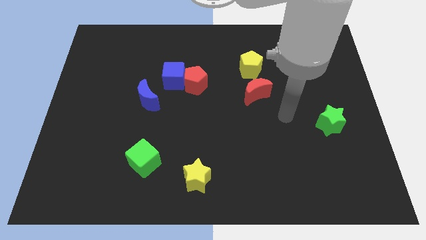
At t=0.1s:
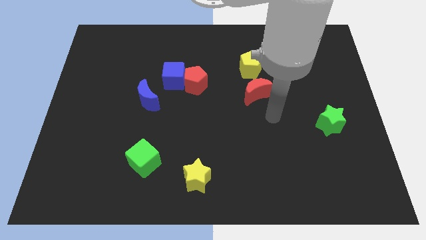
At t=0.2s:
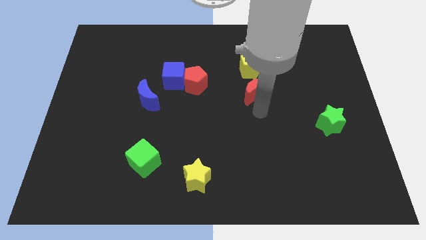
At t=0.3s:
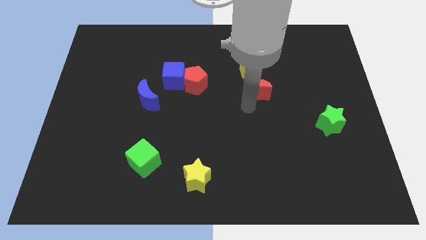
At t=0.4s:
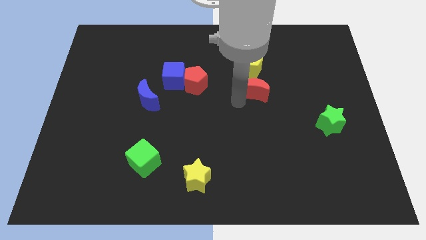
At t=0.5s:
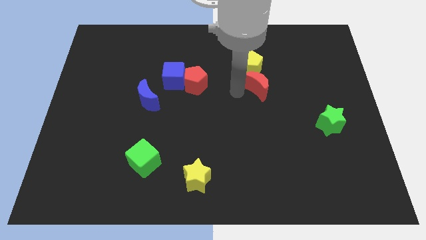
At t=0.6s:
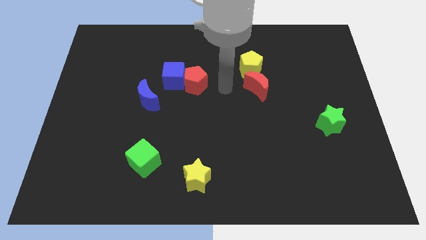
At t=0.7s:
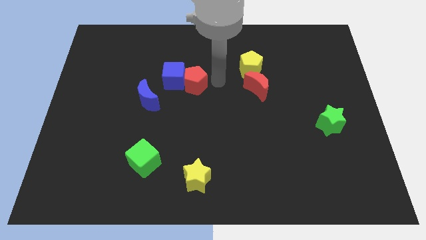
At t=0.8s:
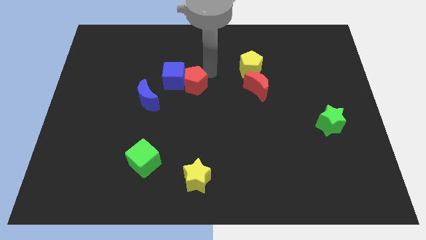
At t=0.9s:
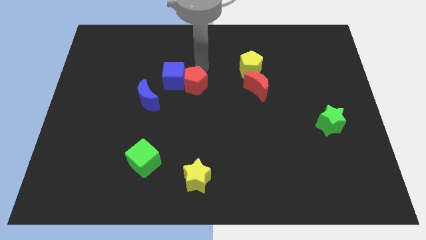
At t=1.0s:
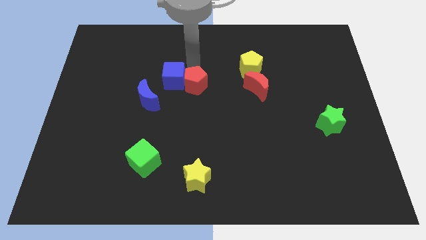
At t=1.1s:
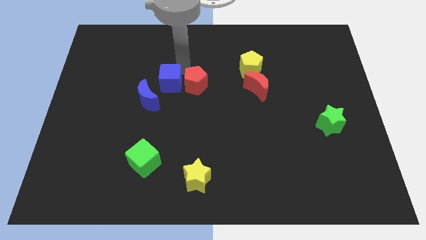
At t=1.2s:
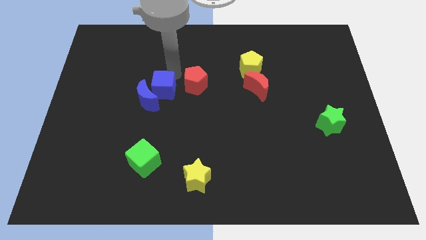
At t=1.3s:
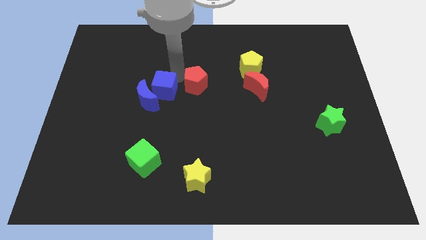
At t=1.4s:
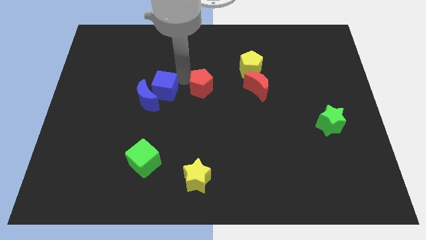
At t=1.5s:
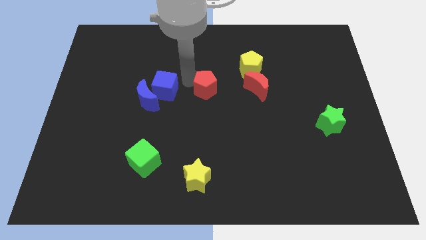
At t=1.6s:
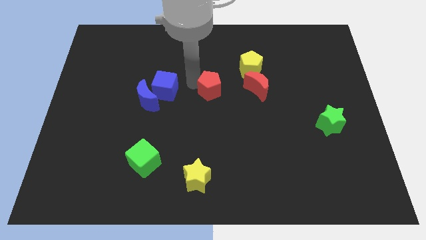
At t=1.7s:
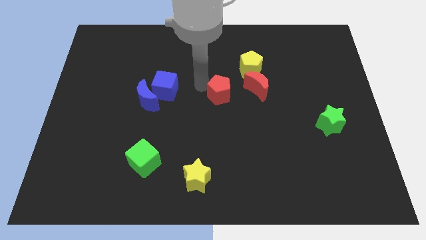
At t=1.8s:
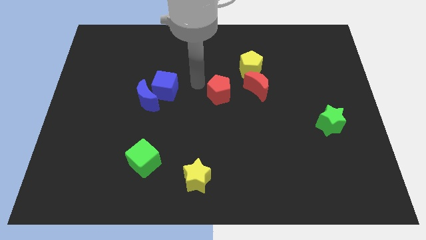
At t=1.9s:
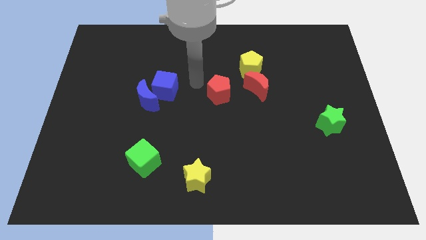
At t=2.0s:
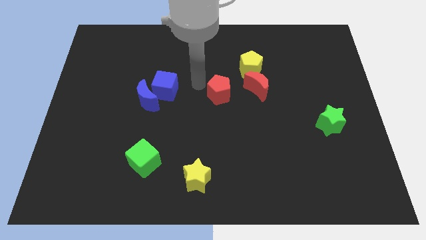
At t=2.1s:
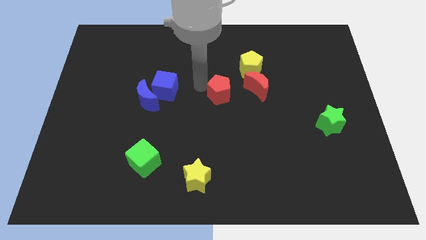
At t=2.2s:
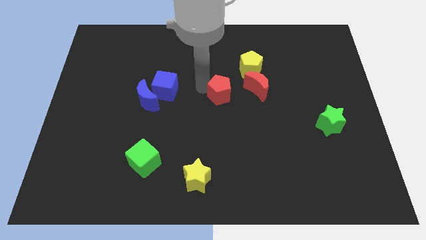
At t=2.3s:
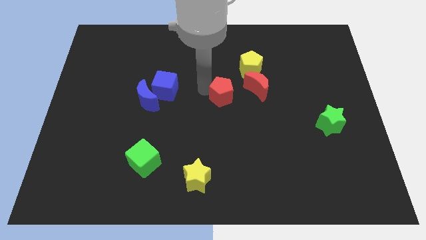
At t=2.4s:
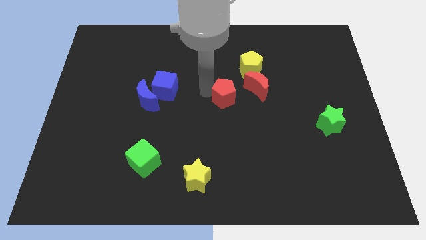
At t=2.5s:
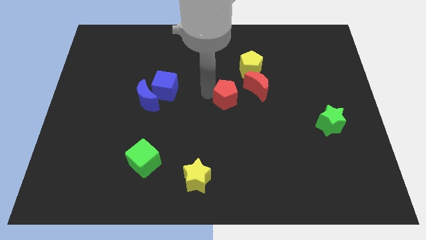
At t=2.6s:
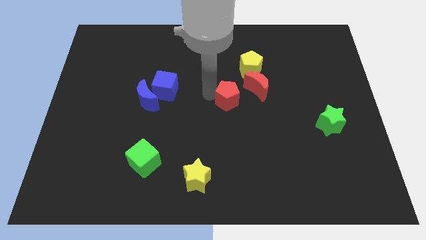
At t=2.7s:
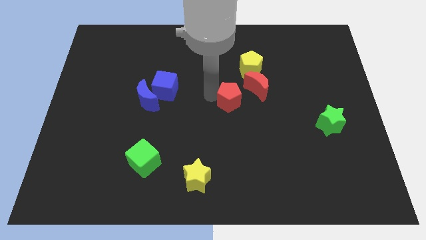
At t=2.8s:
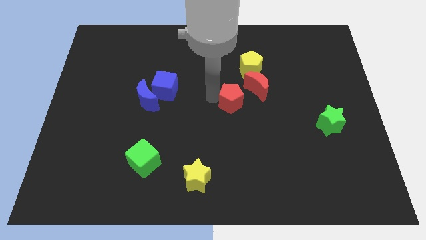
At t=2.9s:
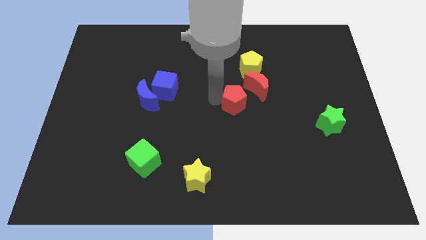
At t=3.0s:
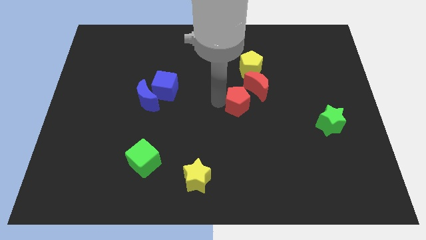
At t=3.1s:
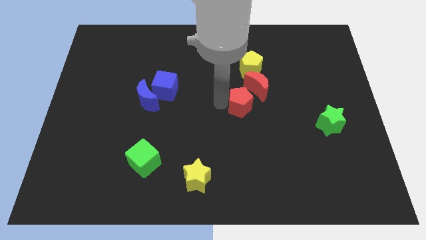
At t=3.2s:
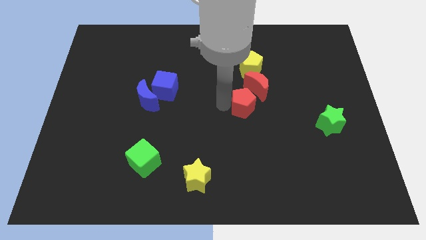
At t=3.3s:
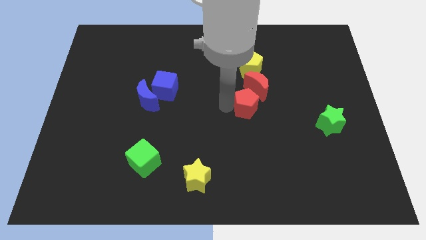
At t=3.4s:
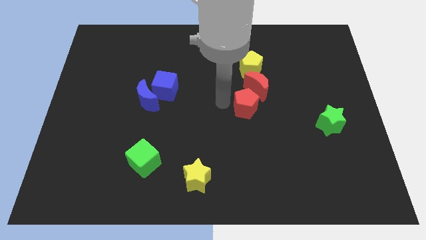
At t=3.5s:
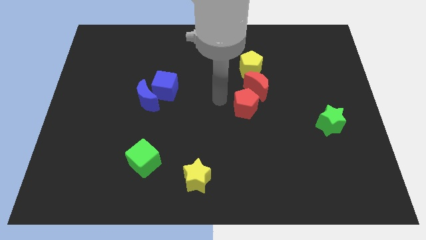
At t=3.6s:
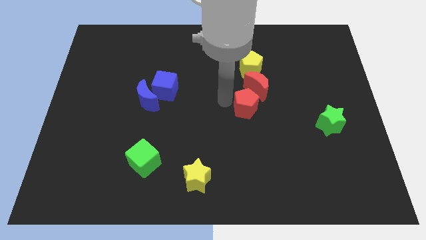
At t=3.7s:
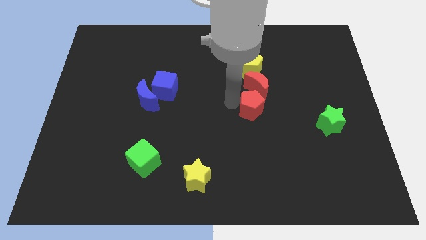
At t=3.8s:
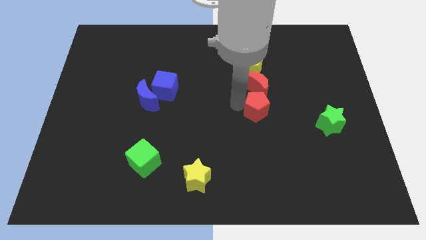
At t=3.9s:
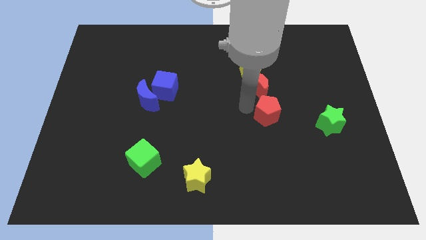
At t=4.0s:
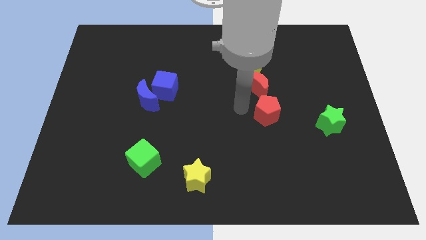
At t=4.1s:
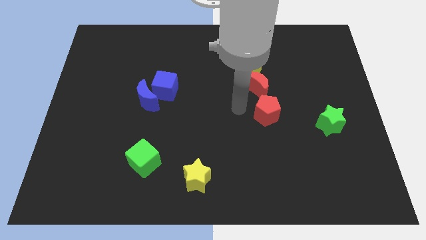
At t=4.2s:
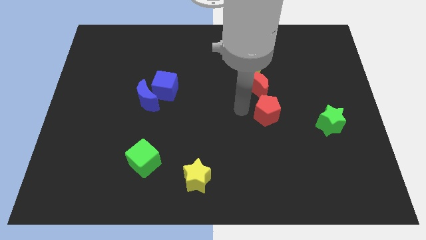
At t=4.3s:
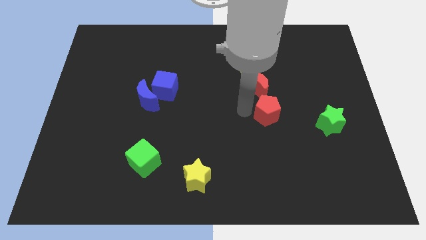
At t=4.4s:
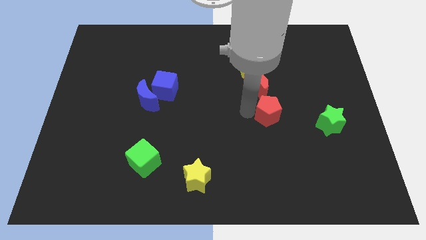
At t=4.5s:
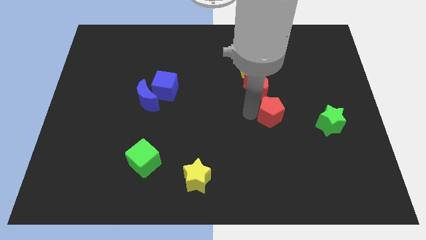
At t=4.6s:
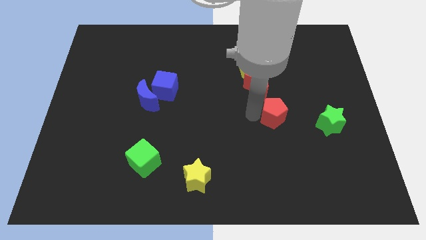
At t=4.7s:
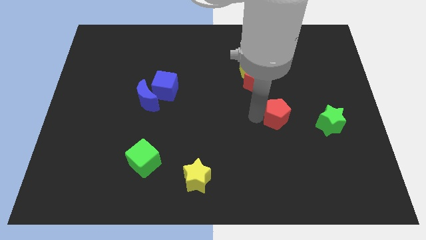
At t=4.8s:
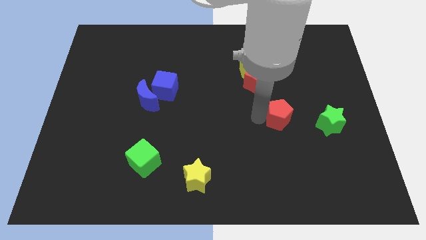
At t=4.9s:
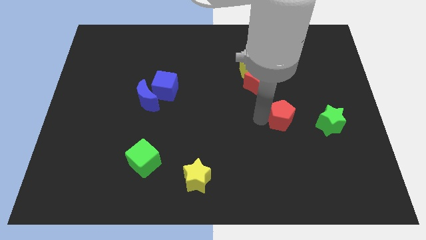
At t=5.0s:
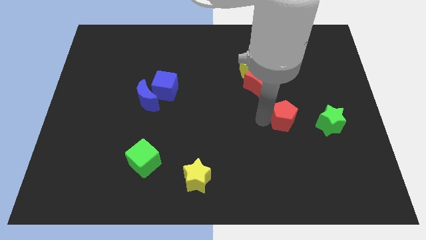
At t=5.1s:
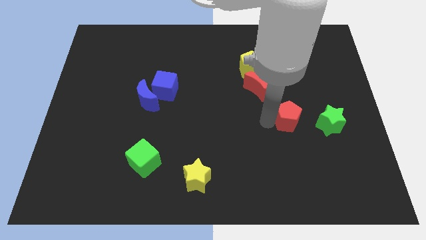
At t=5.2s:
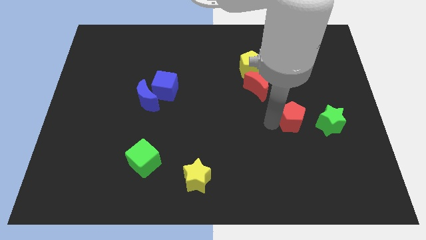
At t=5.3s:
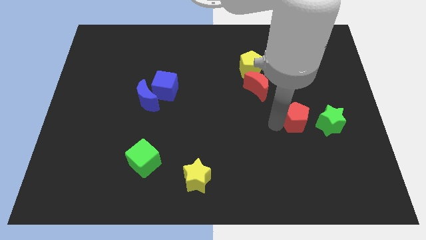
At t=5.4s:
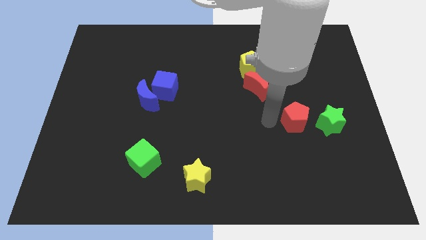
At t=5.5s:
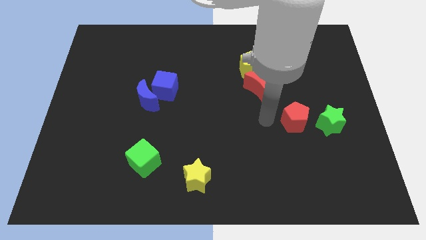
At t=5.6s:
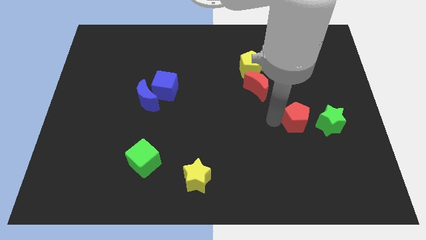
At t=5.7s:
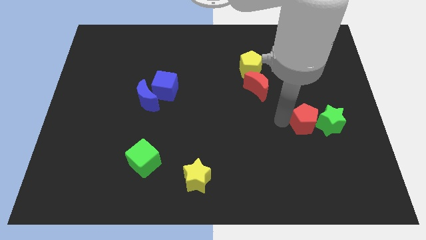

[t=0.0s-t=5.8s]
move the red pentagon to the green star

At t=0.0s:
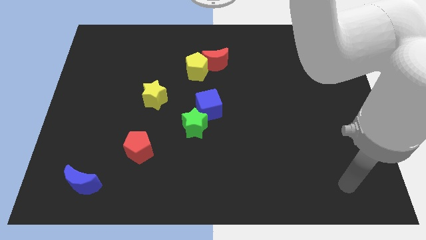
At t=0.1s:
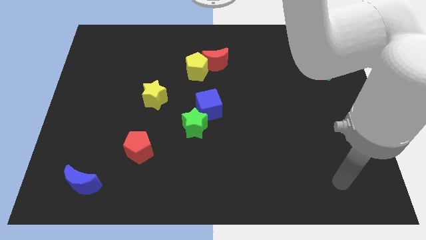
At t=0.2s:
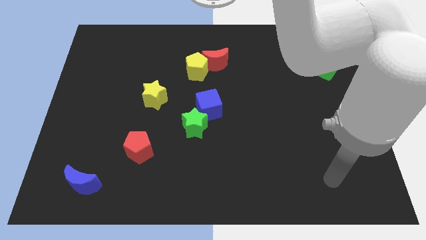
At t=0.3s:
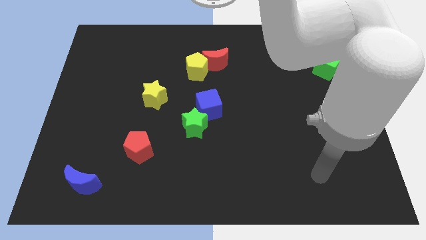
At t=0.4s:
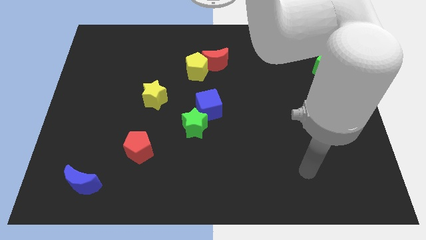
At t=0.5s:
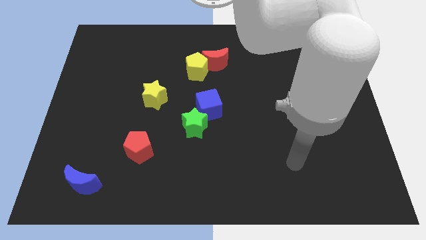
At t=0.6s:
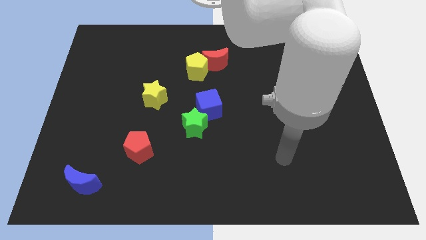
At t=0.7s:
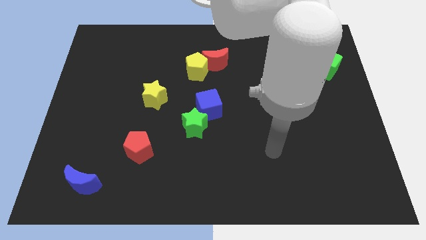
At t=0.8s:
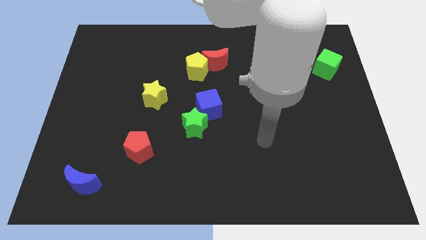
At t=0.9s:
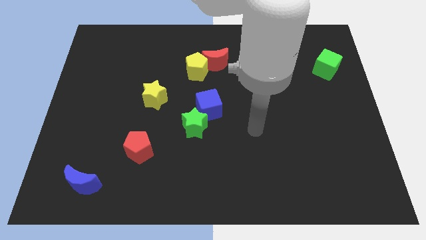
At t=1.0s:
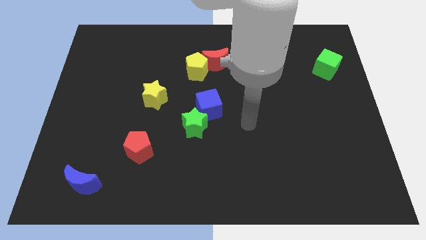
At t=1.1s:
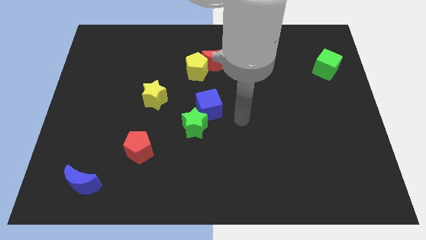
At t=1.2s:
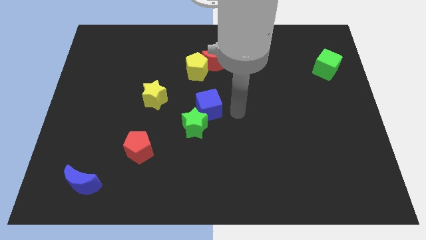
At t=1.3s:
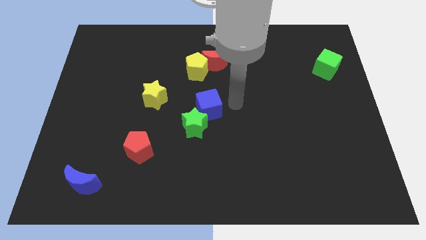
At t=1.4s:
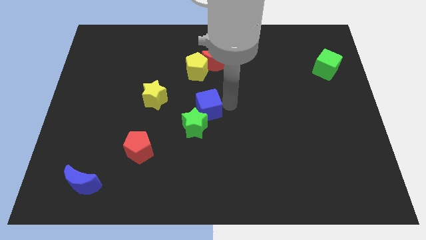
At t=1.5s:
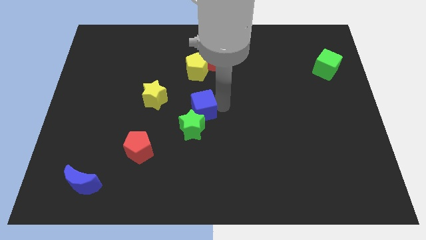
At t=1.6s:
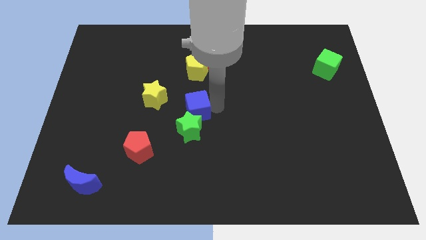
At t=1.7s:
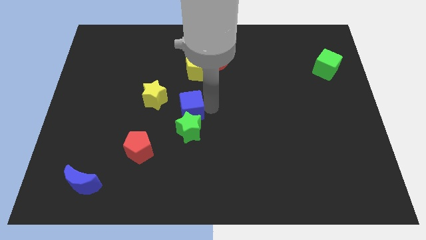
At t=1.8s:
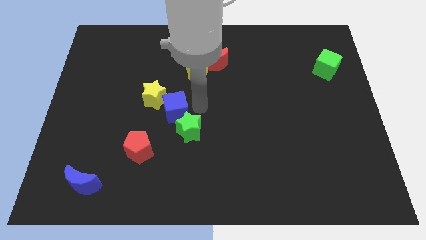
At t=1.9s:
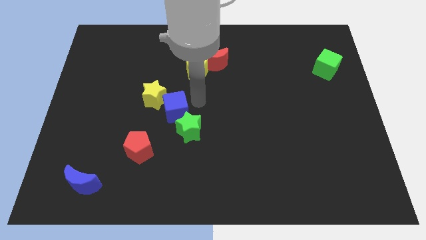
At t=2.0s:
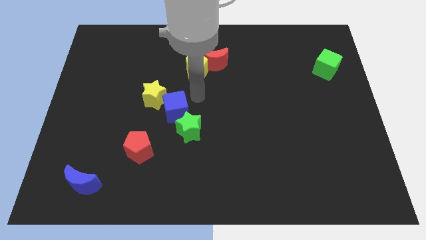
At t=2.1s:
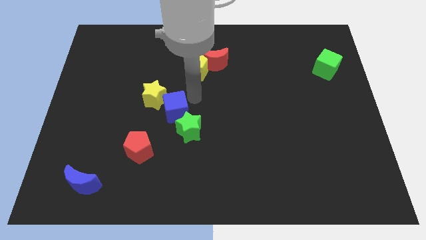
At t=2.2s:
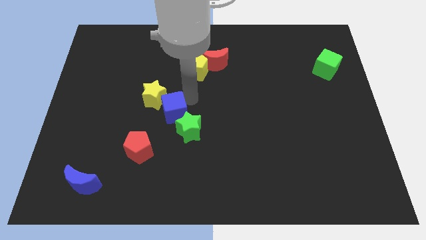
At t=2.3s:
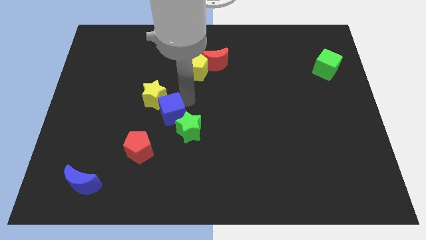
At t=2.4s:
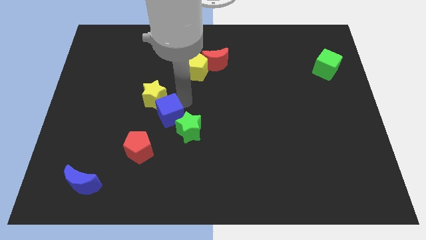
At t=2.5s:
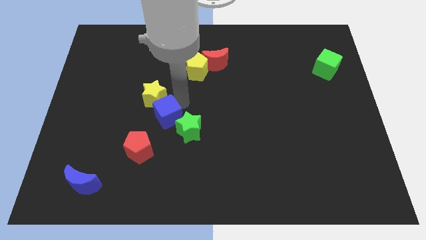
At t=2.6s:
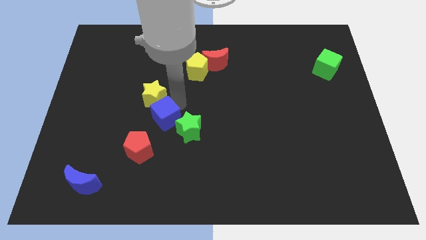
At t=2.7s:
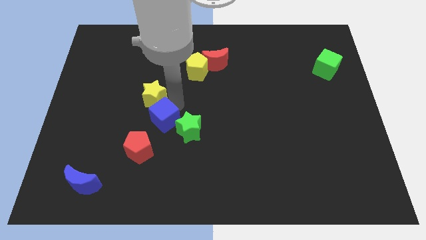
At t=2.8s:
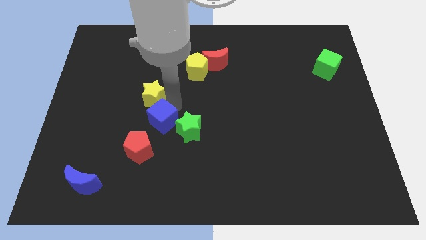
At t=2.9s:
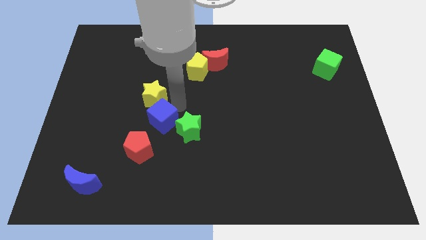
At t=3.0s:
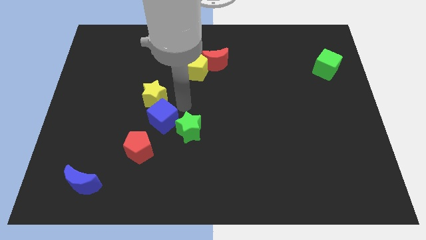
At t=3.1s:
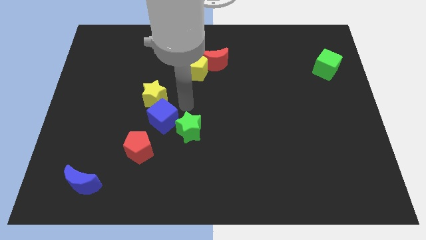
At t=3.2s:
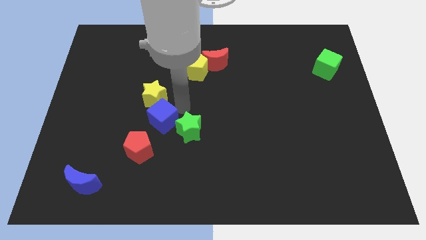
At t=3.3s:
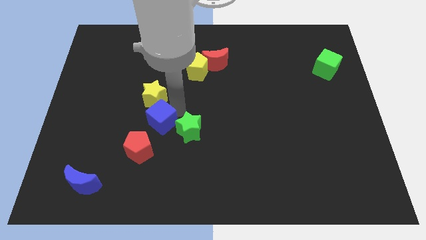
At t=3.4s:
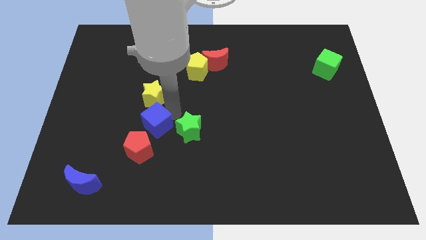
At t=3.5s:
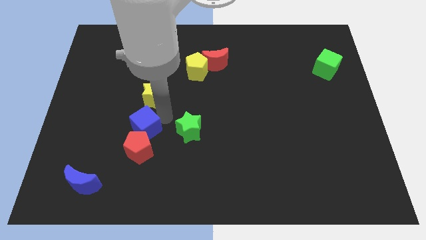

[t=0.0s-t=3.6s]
push the blue cube next to the red pentagon
